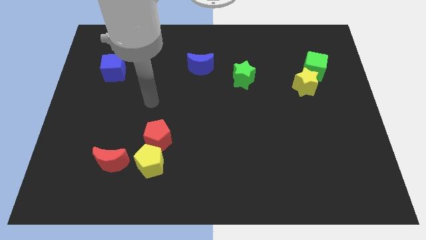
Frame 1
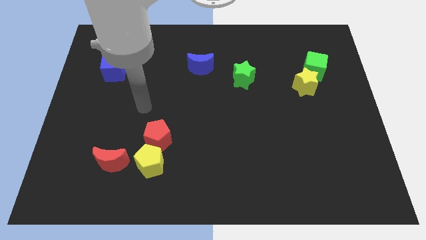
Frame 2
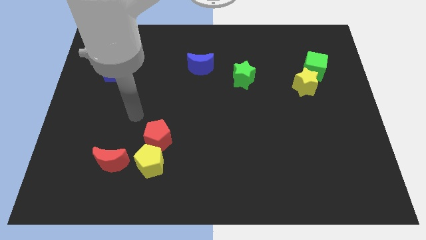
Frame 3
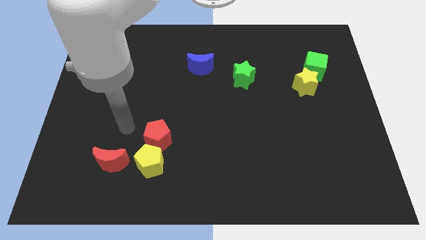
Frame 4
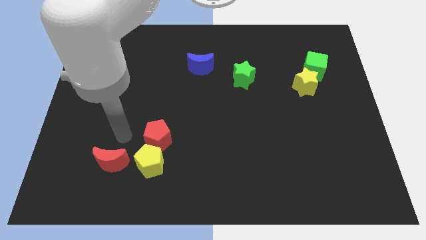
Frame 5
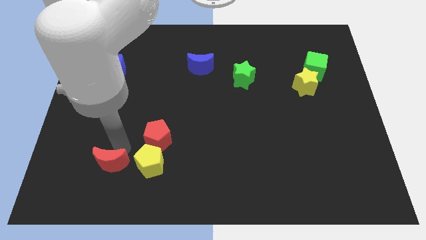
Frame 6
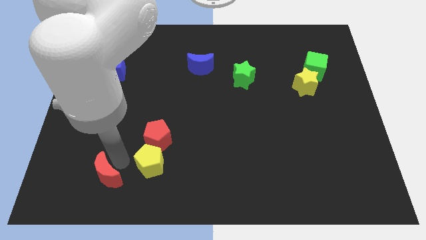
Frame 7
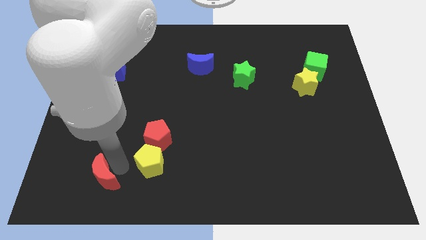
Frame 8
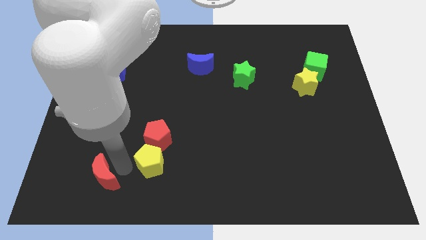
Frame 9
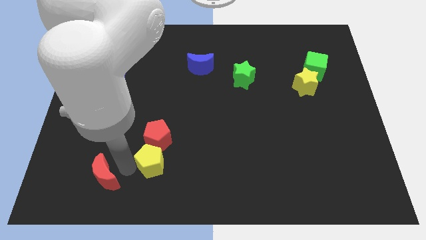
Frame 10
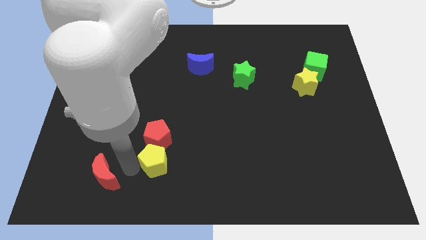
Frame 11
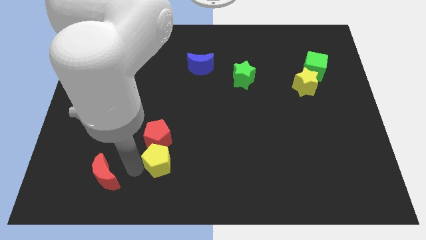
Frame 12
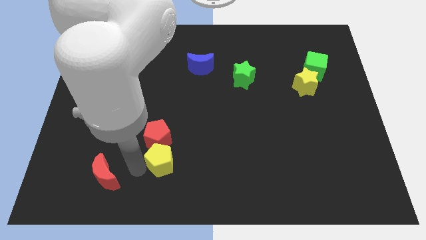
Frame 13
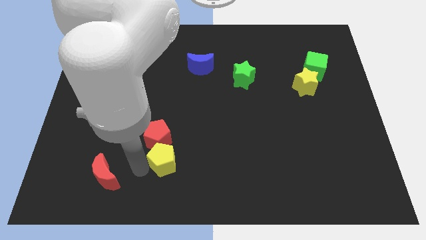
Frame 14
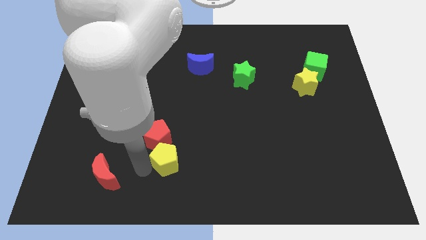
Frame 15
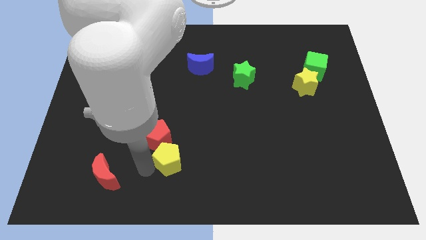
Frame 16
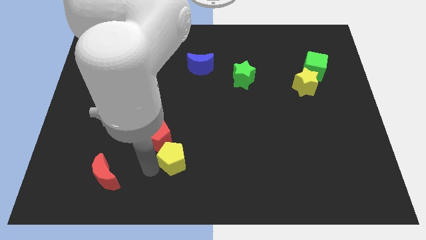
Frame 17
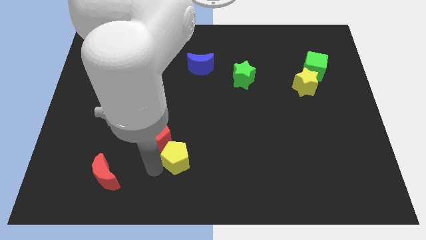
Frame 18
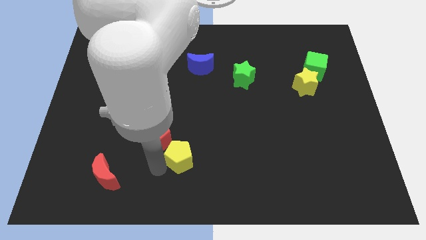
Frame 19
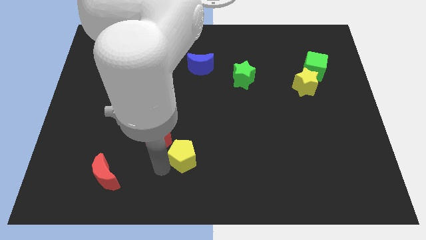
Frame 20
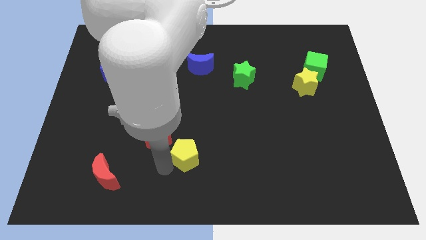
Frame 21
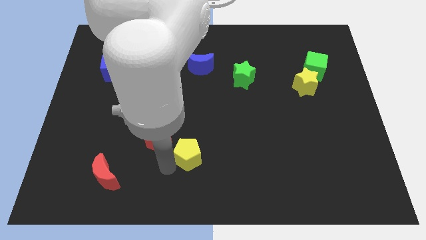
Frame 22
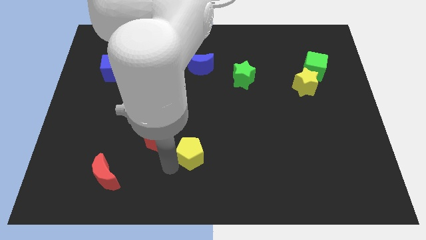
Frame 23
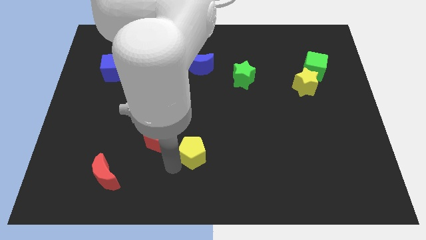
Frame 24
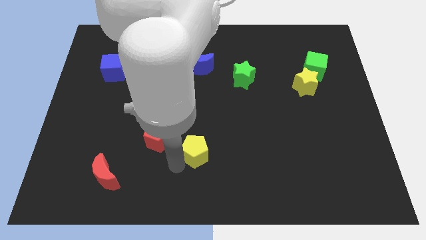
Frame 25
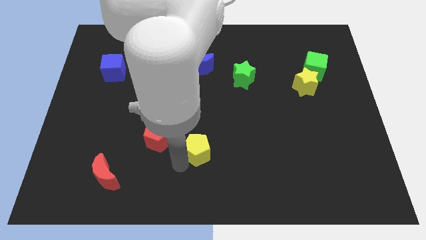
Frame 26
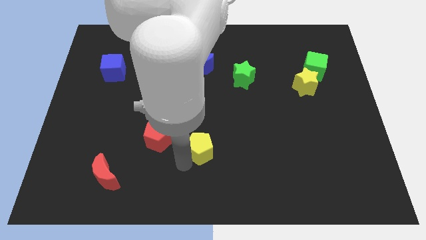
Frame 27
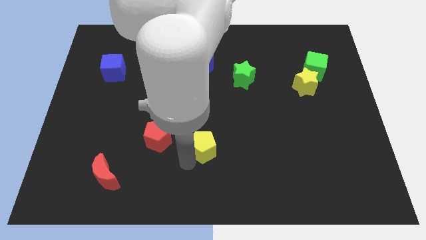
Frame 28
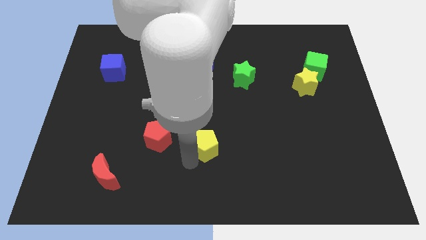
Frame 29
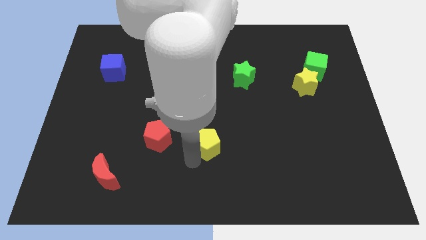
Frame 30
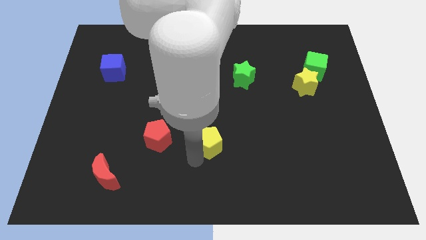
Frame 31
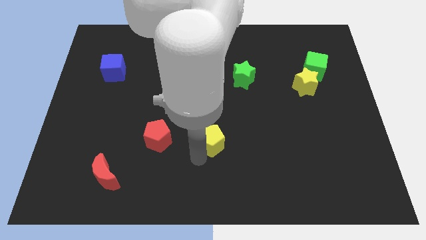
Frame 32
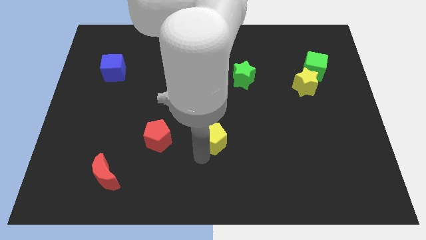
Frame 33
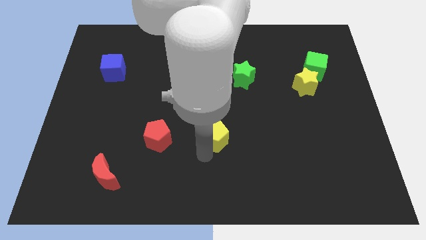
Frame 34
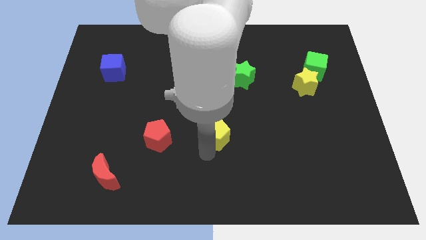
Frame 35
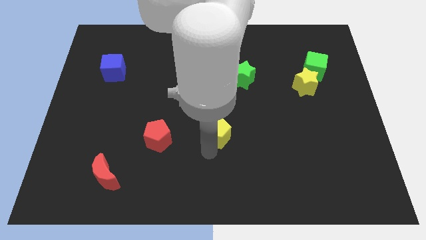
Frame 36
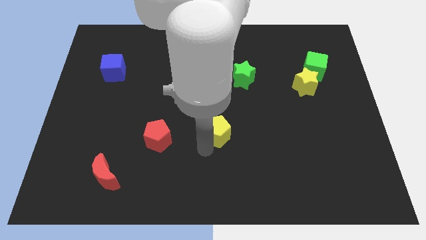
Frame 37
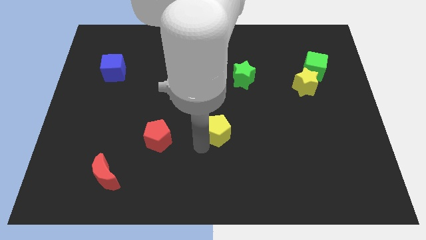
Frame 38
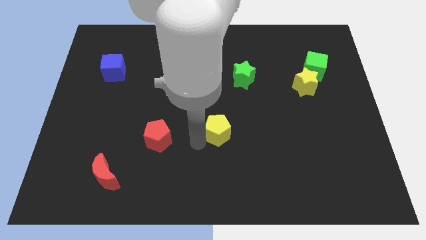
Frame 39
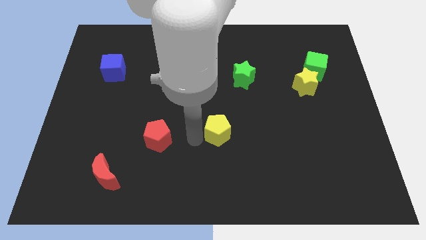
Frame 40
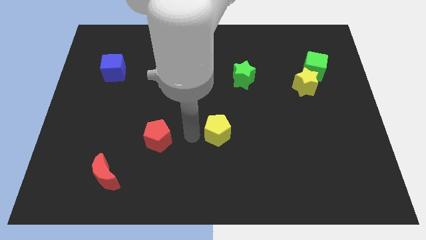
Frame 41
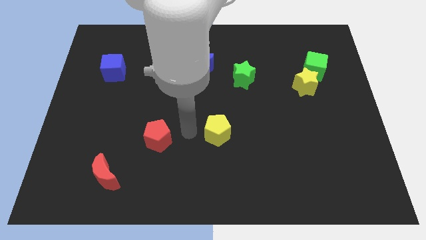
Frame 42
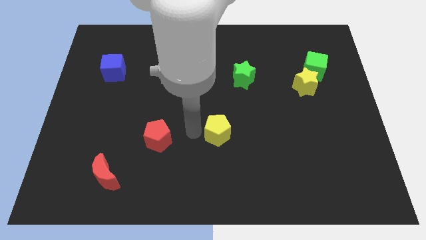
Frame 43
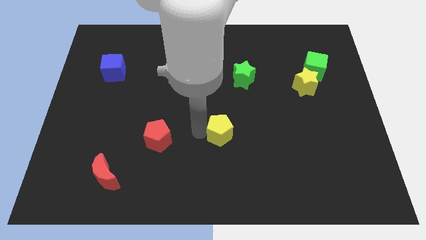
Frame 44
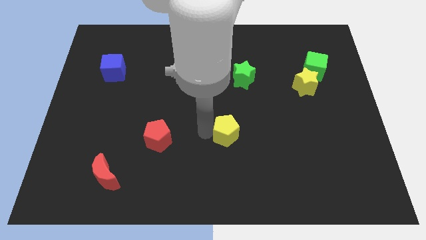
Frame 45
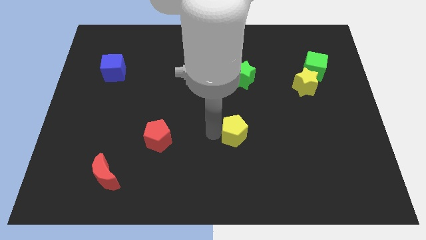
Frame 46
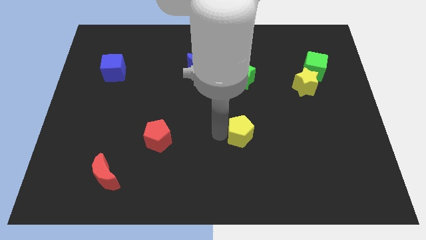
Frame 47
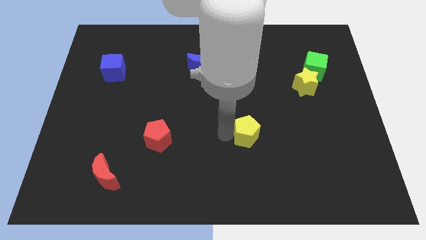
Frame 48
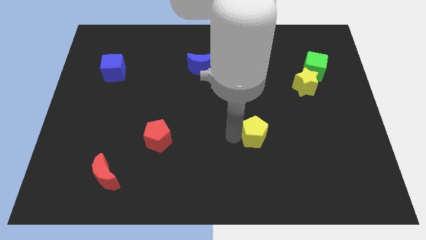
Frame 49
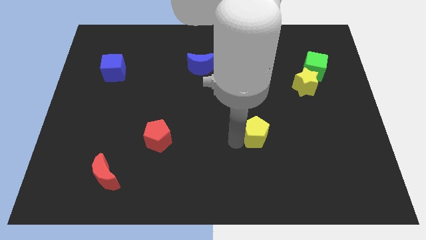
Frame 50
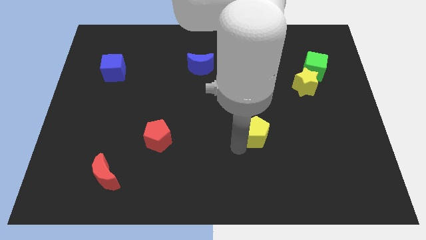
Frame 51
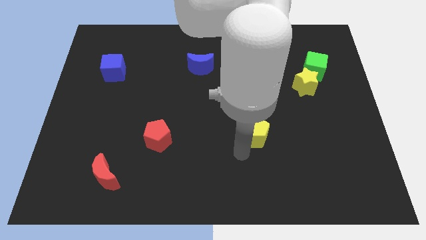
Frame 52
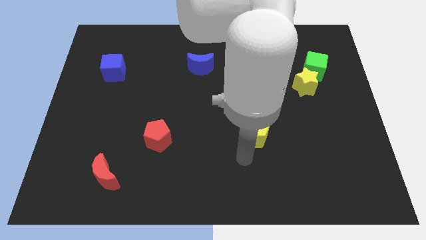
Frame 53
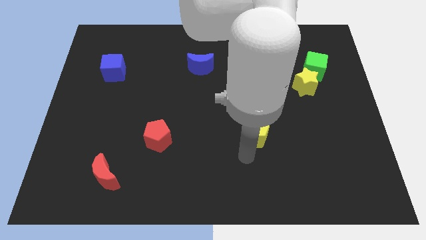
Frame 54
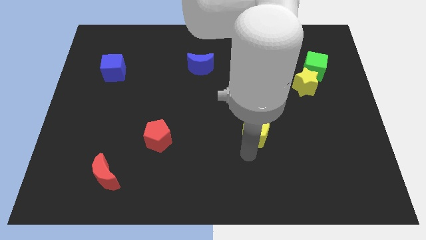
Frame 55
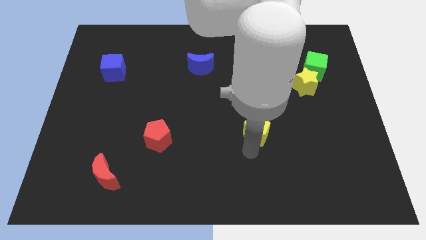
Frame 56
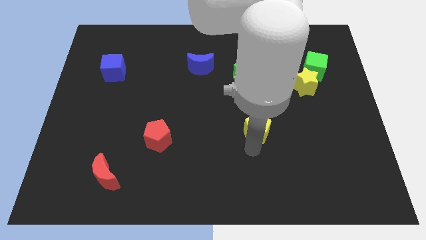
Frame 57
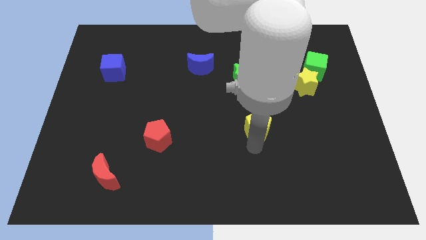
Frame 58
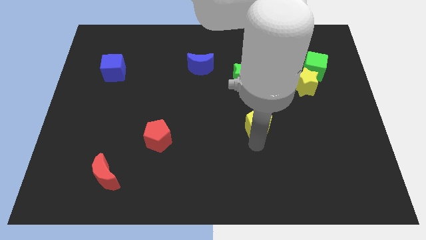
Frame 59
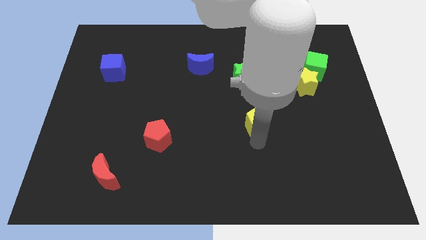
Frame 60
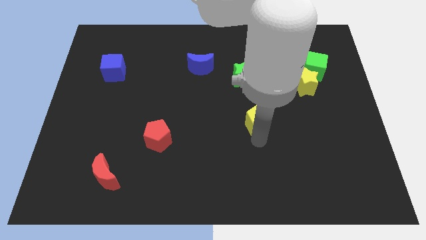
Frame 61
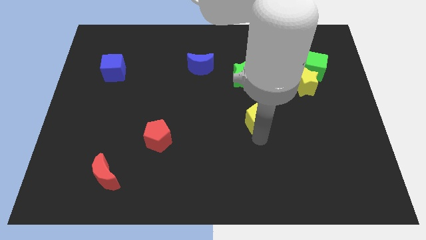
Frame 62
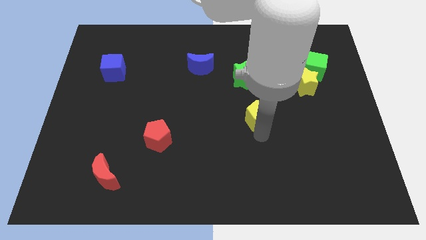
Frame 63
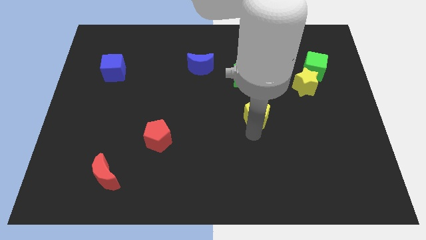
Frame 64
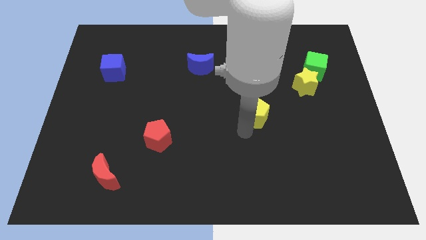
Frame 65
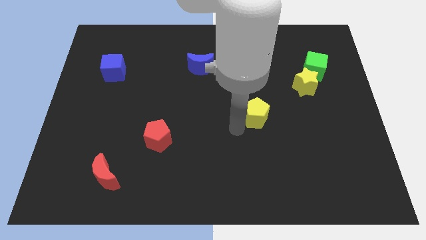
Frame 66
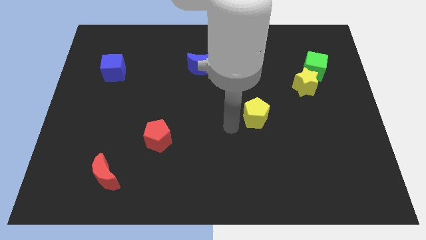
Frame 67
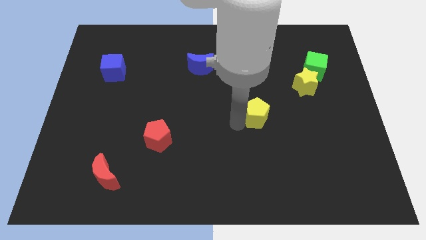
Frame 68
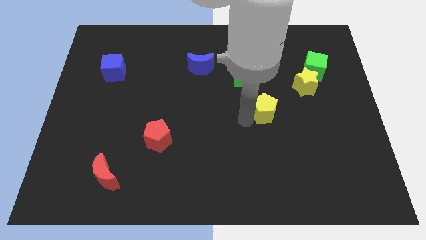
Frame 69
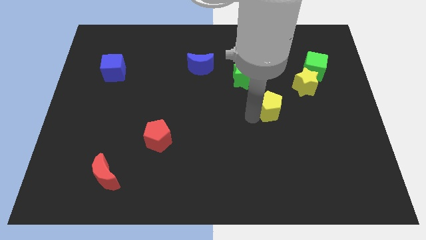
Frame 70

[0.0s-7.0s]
move the yellow pentagon diagonally down and to the left of the yellow star
